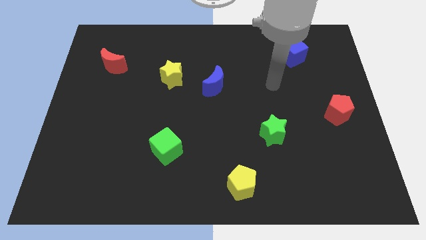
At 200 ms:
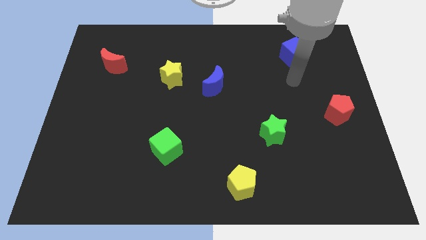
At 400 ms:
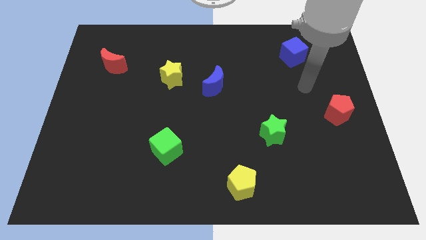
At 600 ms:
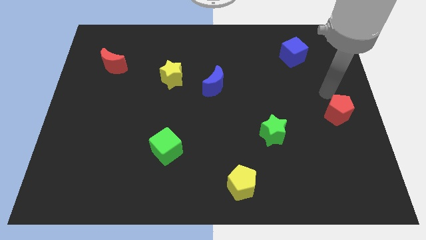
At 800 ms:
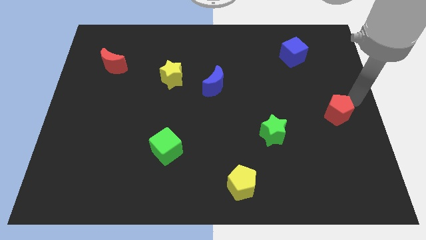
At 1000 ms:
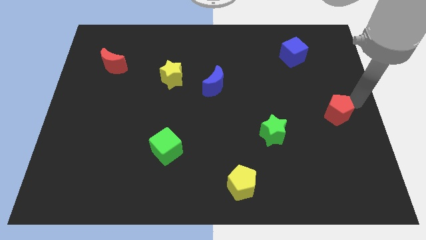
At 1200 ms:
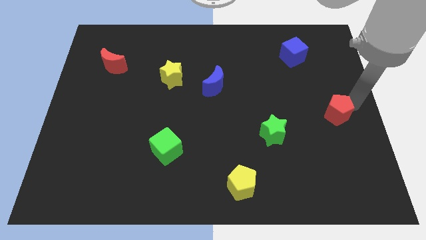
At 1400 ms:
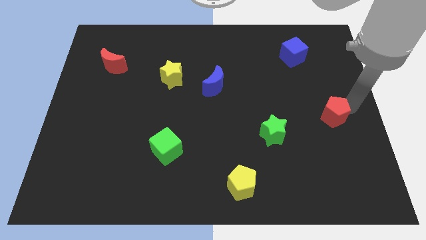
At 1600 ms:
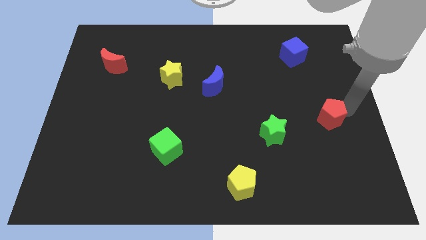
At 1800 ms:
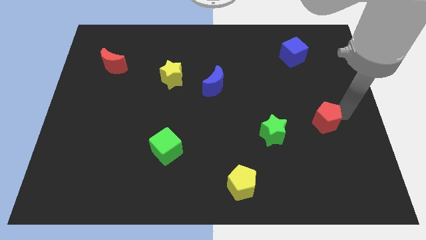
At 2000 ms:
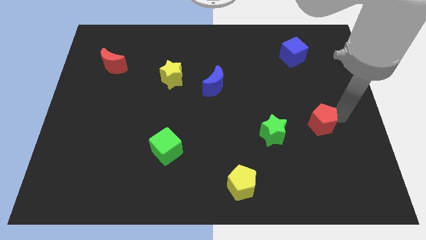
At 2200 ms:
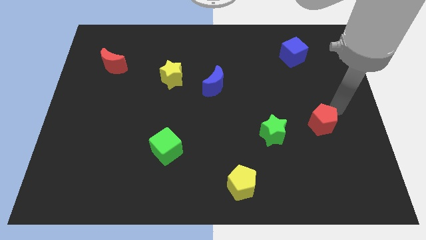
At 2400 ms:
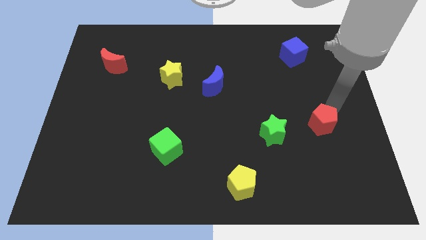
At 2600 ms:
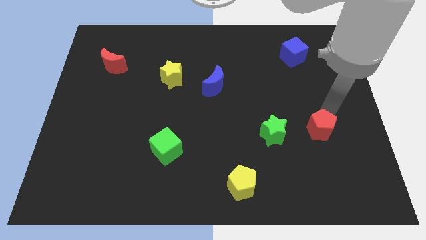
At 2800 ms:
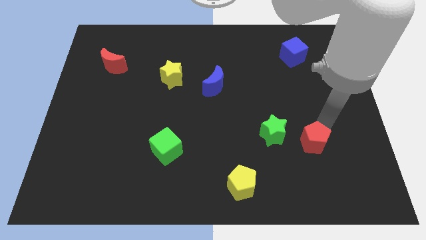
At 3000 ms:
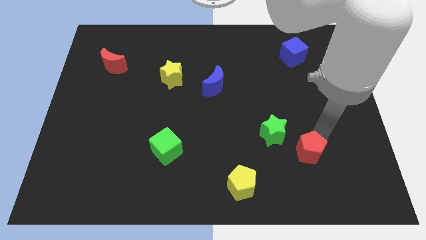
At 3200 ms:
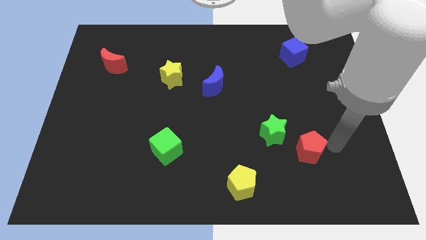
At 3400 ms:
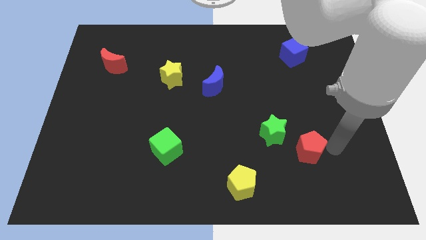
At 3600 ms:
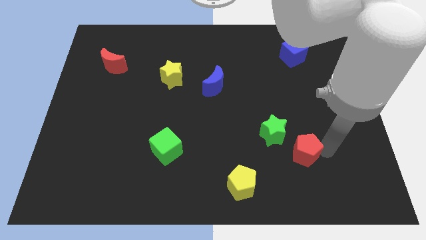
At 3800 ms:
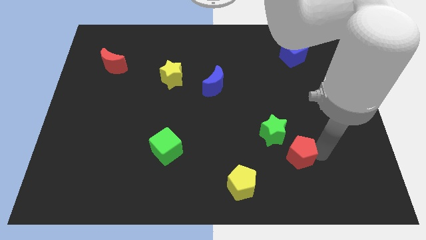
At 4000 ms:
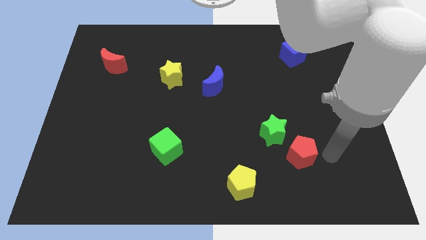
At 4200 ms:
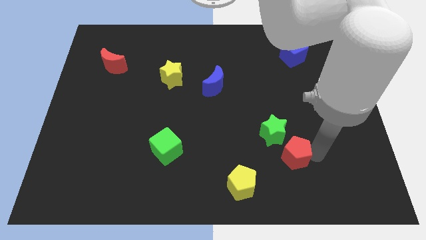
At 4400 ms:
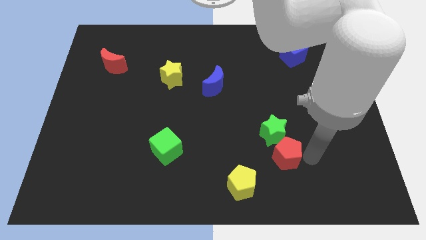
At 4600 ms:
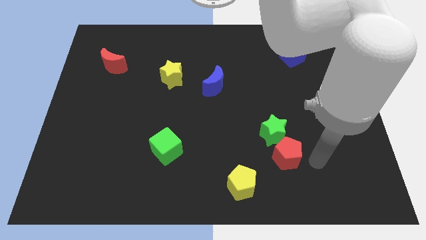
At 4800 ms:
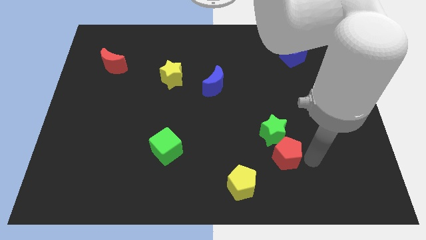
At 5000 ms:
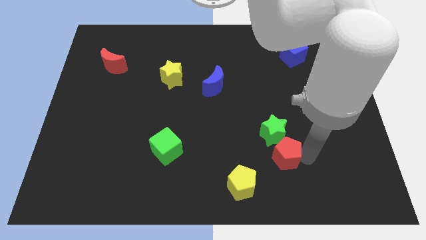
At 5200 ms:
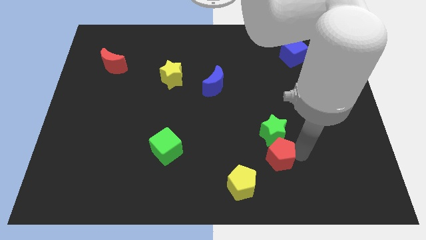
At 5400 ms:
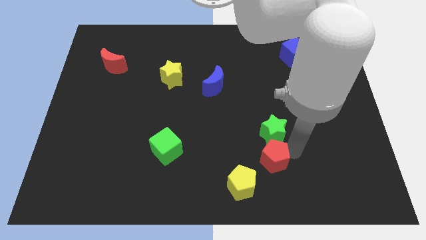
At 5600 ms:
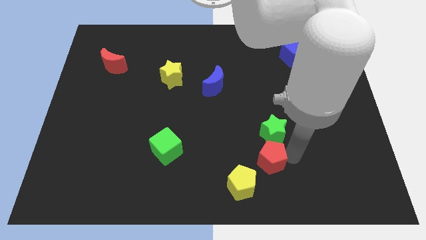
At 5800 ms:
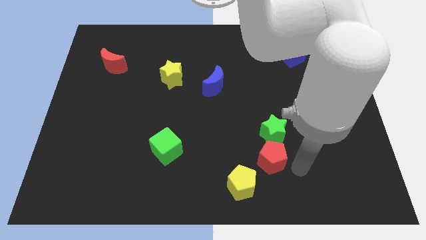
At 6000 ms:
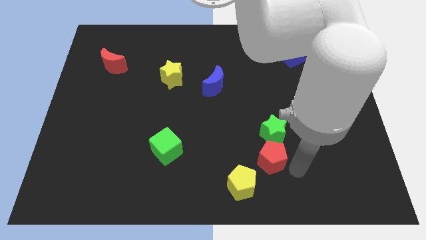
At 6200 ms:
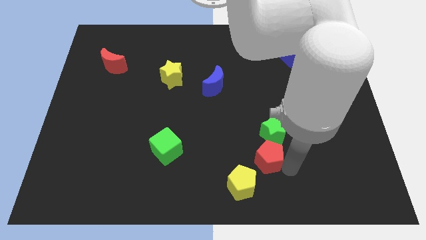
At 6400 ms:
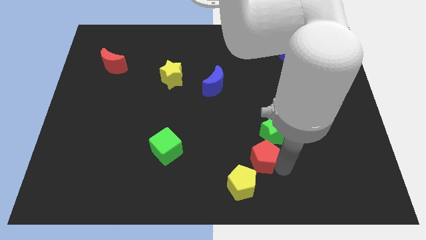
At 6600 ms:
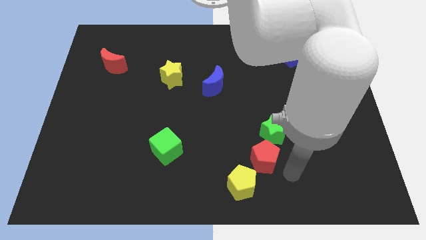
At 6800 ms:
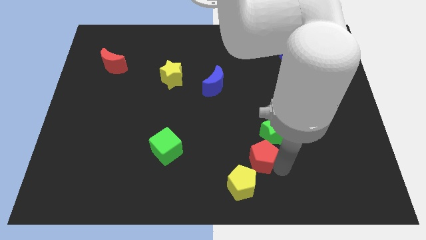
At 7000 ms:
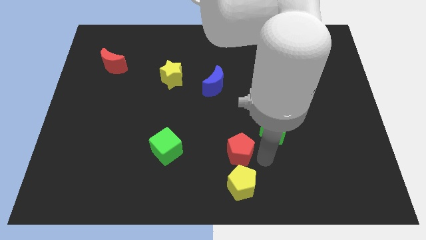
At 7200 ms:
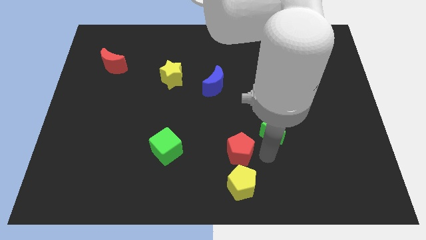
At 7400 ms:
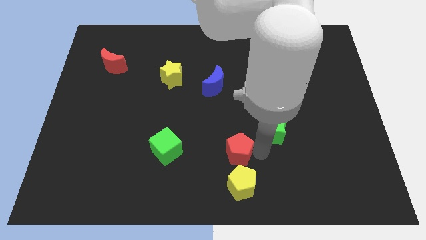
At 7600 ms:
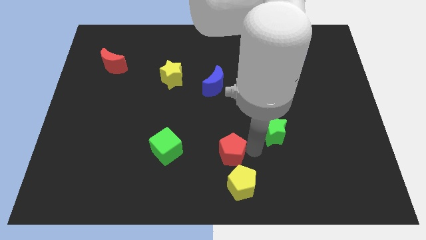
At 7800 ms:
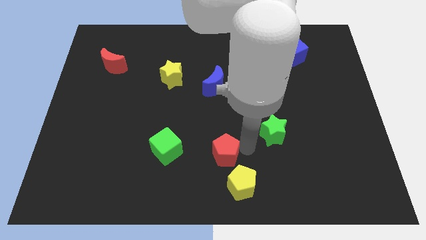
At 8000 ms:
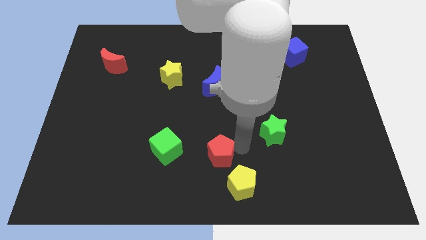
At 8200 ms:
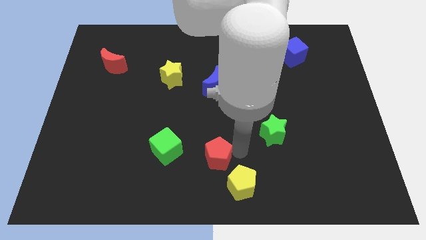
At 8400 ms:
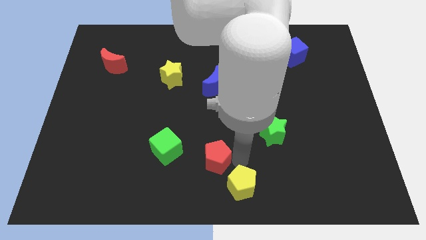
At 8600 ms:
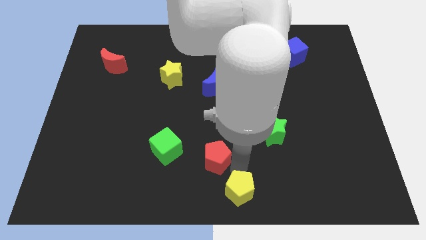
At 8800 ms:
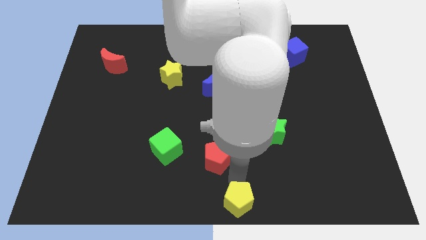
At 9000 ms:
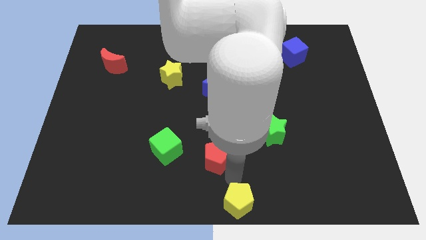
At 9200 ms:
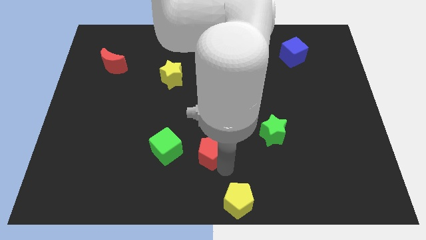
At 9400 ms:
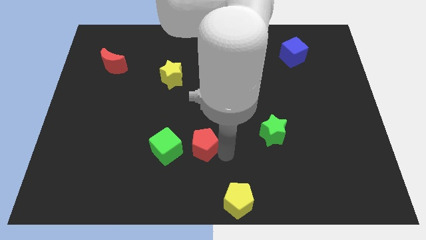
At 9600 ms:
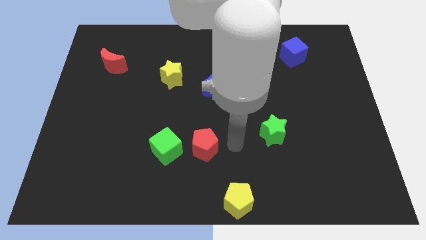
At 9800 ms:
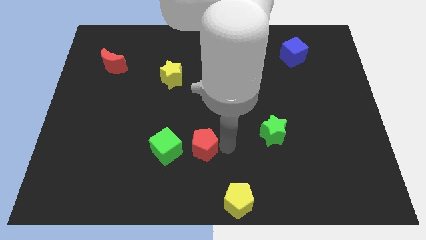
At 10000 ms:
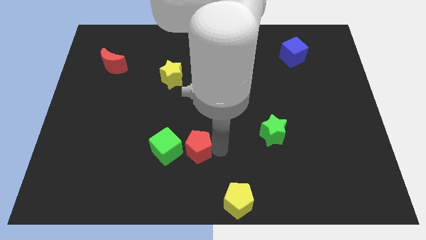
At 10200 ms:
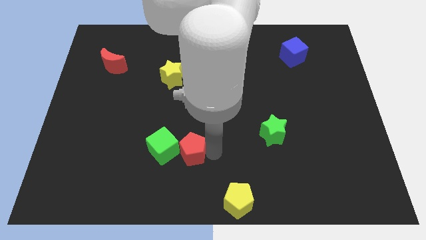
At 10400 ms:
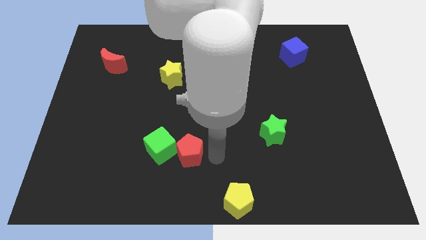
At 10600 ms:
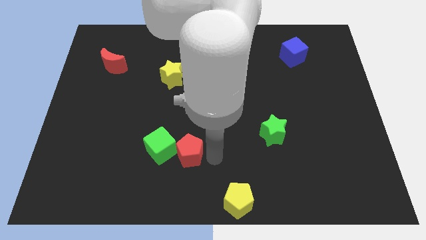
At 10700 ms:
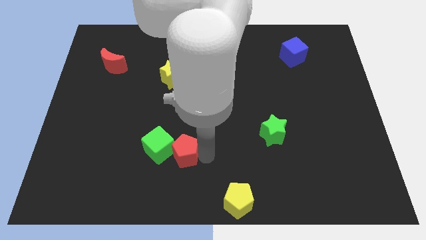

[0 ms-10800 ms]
put the red pentagon close to the green cube

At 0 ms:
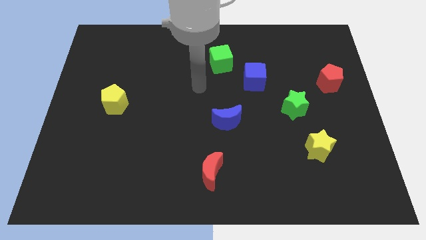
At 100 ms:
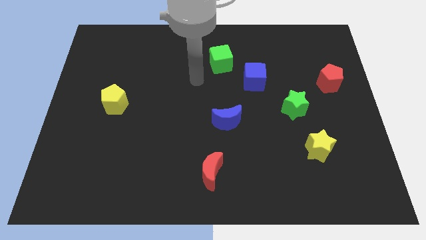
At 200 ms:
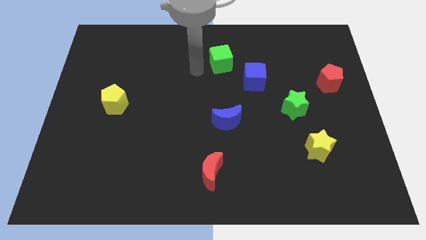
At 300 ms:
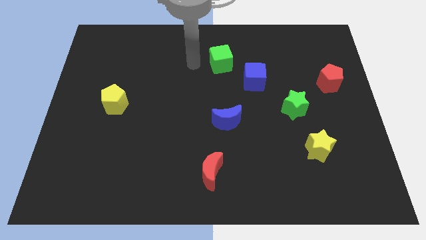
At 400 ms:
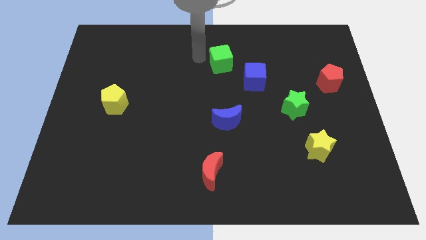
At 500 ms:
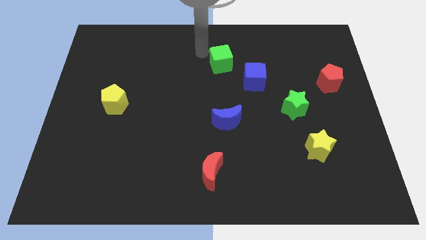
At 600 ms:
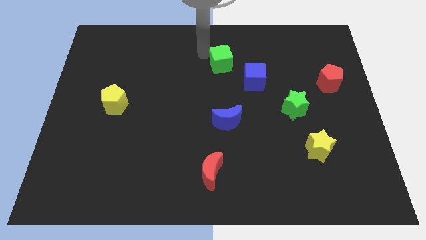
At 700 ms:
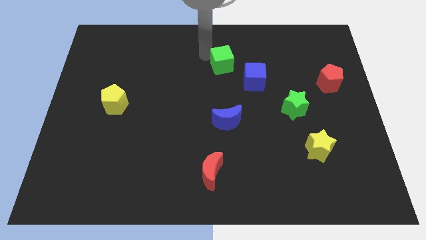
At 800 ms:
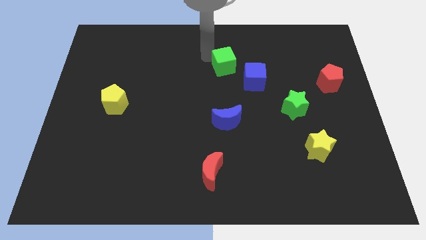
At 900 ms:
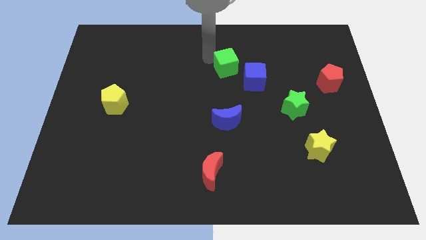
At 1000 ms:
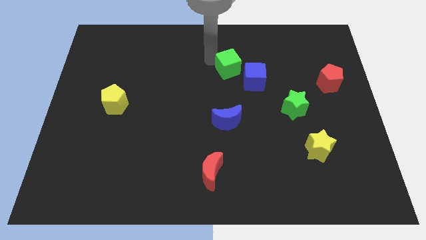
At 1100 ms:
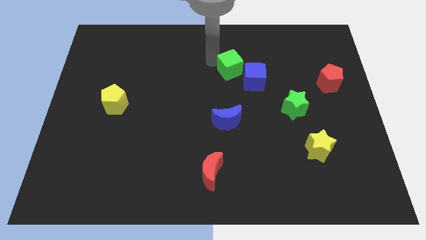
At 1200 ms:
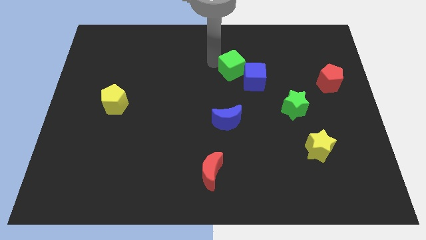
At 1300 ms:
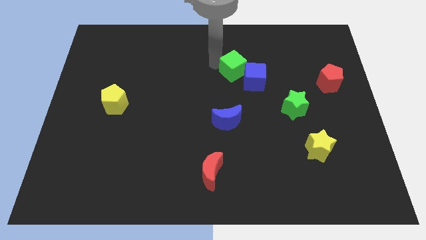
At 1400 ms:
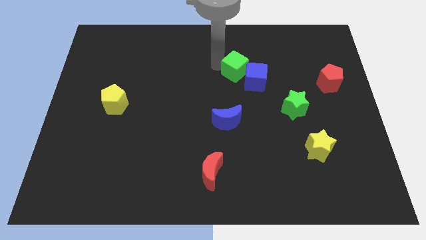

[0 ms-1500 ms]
move the green cube to the blue cube

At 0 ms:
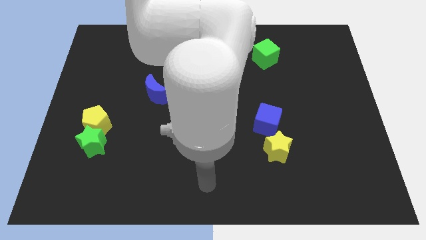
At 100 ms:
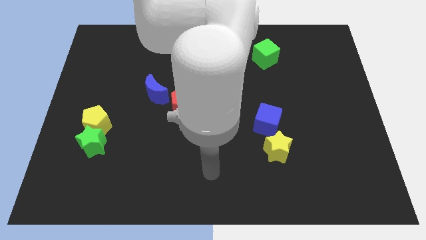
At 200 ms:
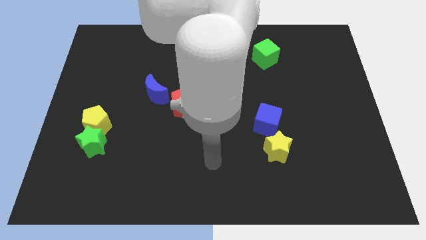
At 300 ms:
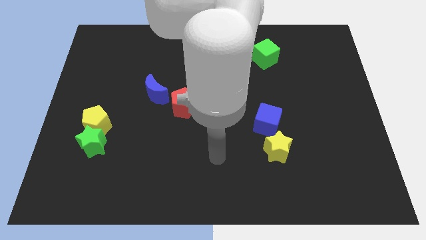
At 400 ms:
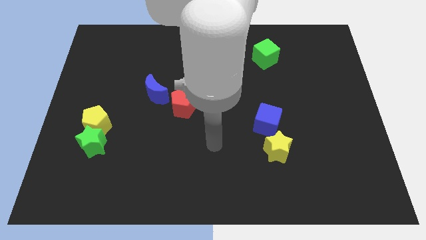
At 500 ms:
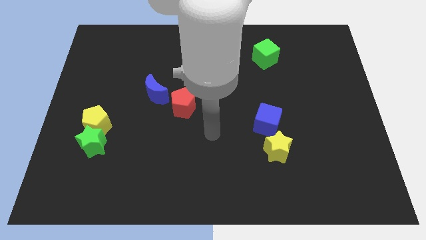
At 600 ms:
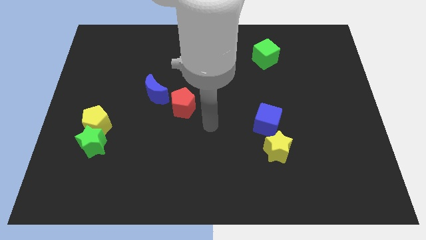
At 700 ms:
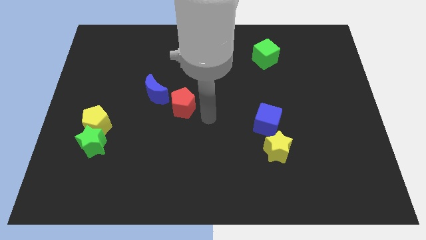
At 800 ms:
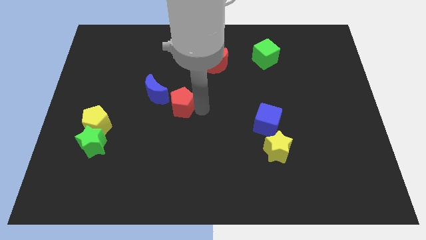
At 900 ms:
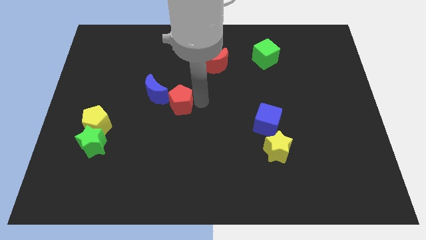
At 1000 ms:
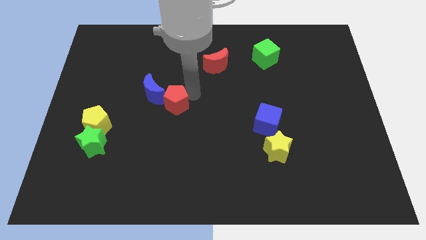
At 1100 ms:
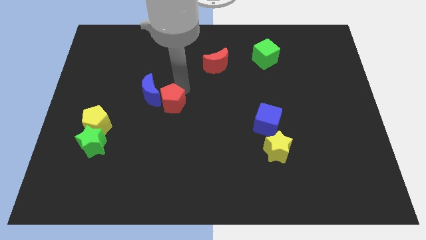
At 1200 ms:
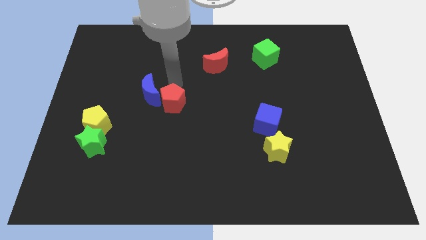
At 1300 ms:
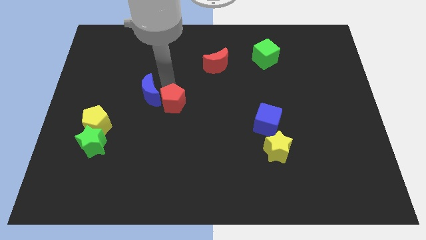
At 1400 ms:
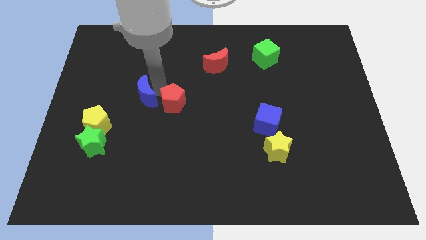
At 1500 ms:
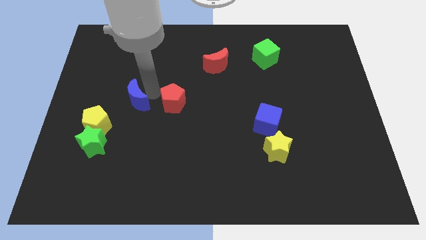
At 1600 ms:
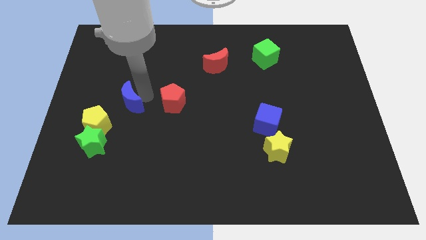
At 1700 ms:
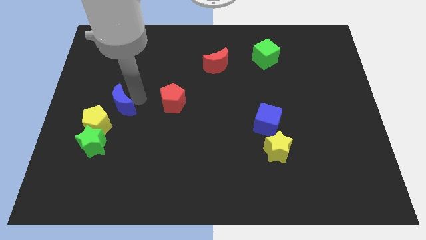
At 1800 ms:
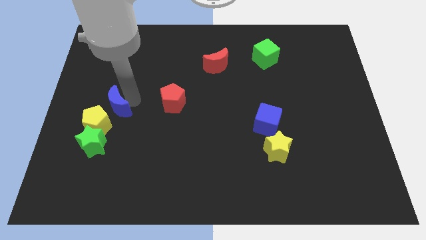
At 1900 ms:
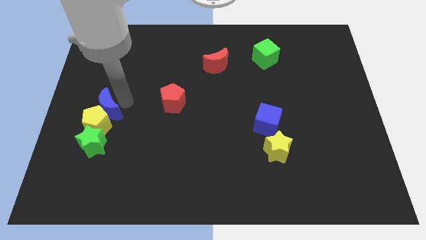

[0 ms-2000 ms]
slide the blue moon towards the yellow pentagon
